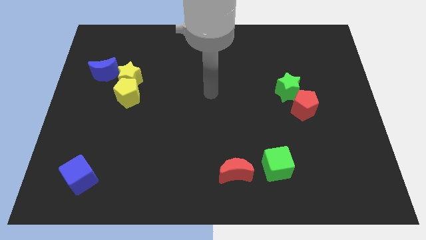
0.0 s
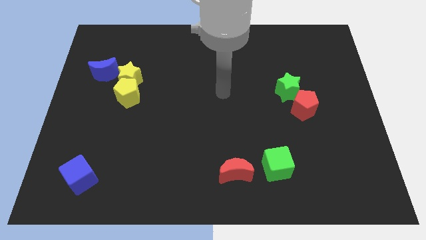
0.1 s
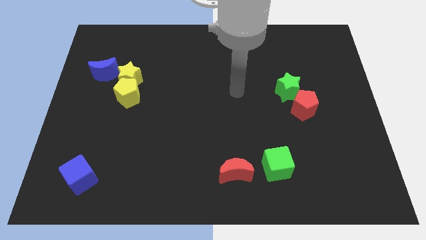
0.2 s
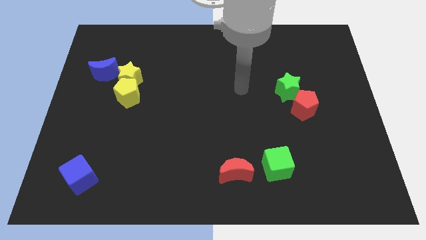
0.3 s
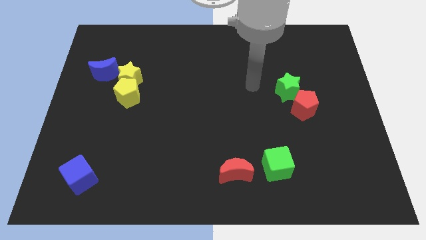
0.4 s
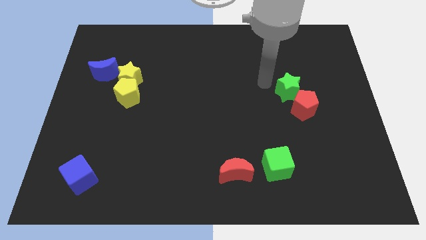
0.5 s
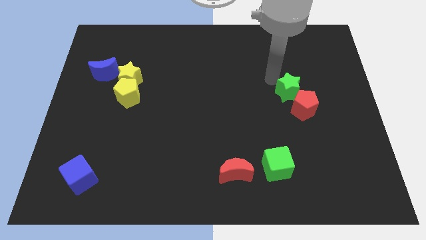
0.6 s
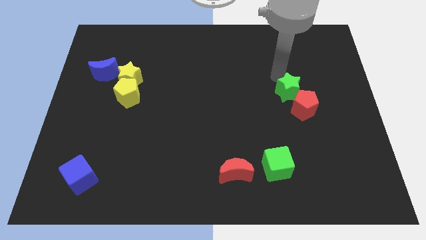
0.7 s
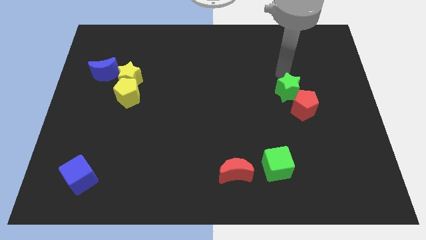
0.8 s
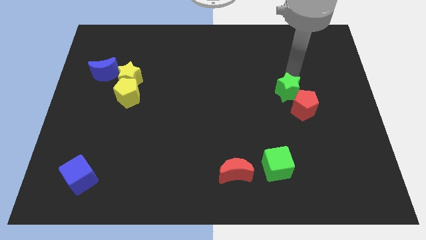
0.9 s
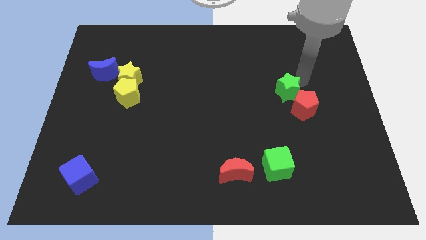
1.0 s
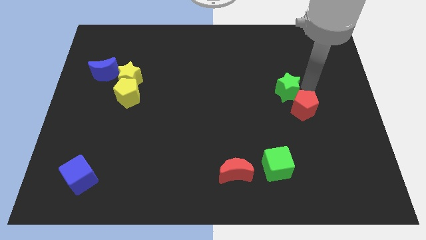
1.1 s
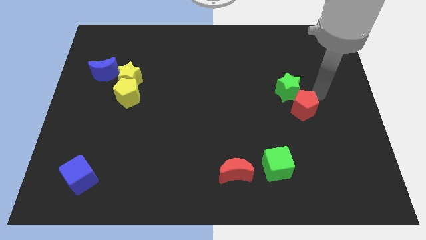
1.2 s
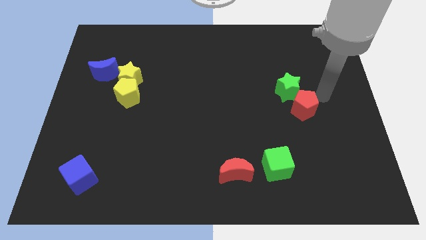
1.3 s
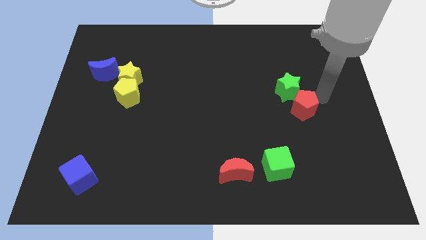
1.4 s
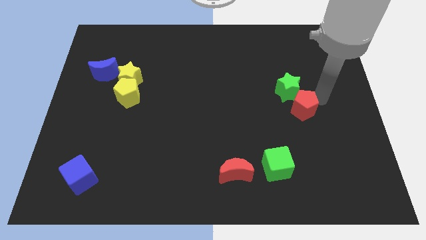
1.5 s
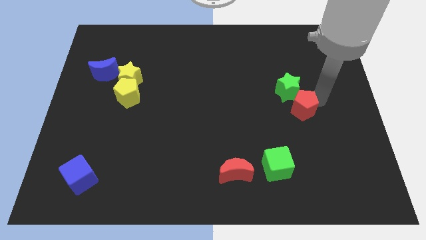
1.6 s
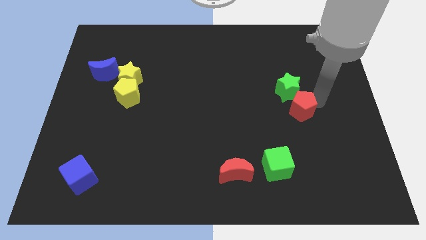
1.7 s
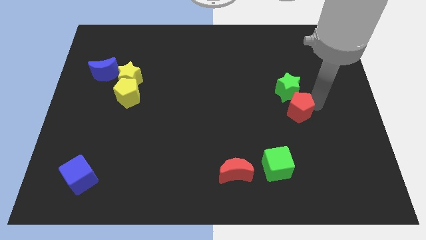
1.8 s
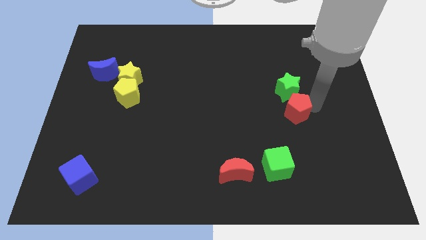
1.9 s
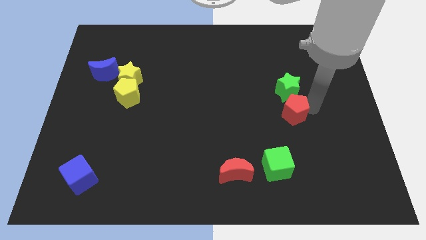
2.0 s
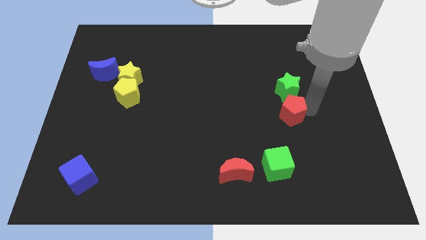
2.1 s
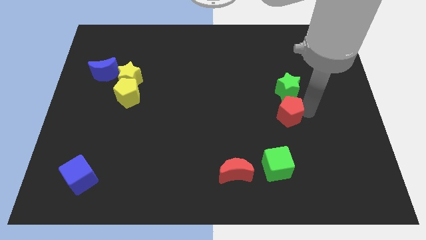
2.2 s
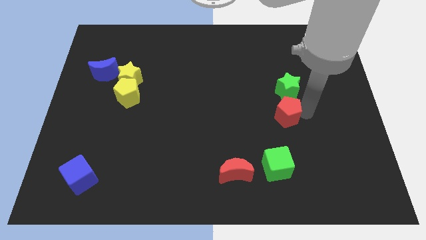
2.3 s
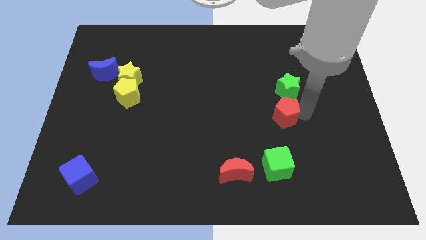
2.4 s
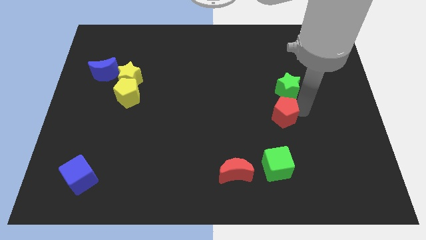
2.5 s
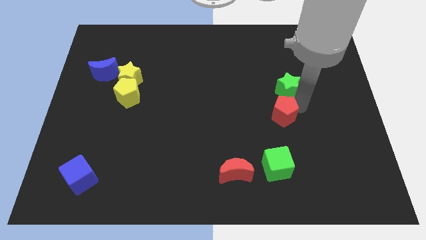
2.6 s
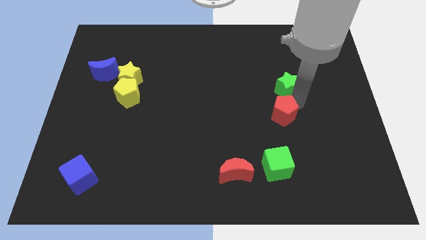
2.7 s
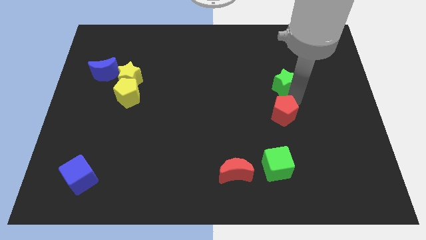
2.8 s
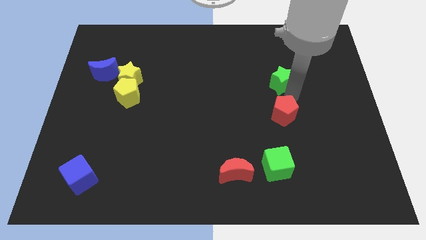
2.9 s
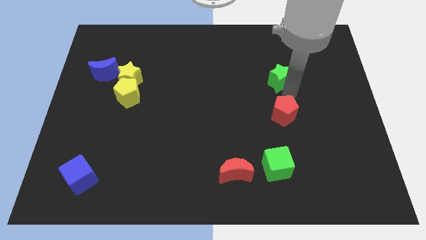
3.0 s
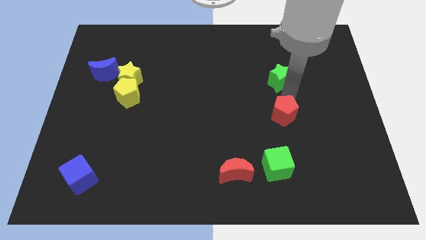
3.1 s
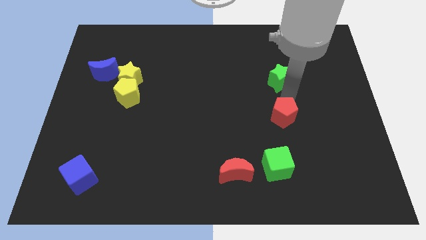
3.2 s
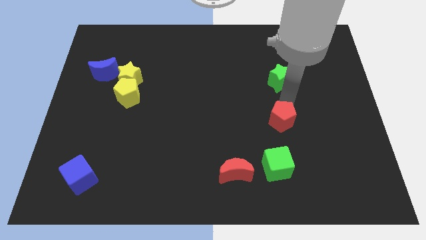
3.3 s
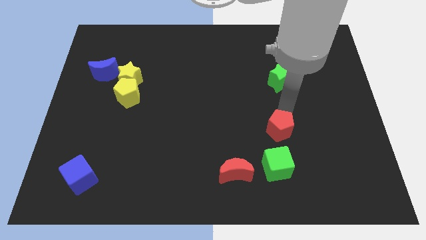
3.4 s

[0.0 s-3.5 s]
slightly push the red pentagon downwards and left

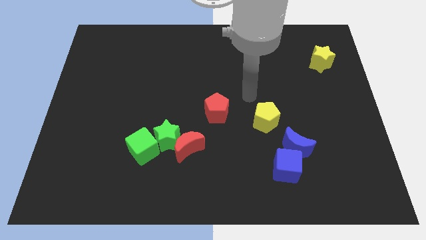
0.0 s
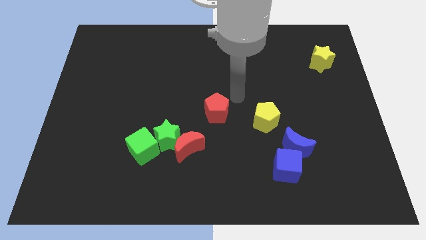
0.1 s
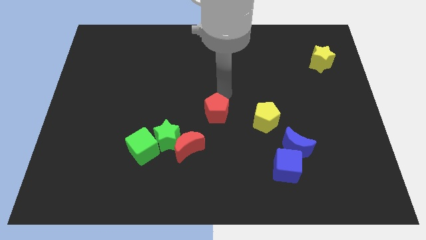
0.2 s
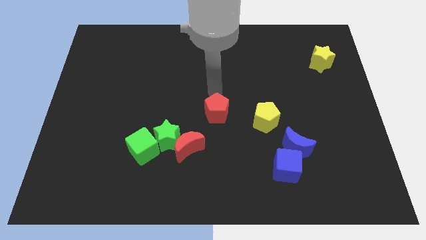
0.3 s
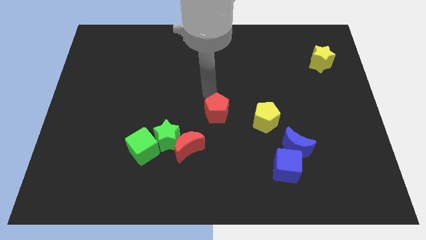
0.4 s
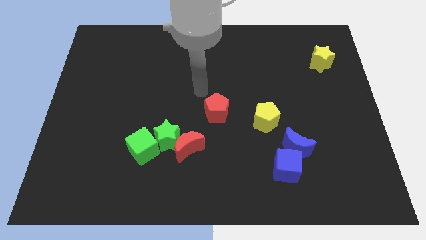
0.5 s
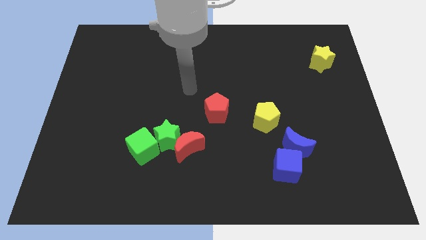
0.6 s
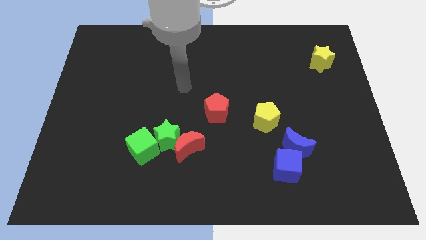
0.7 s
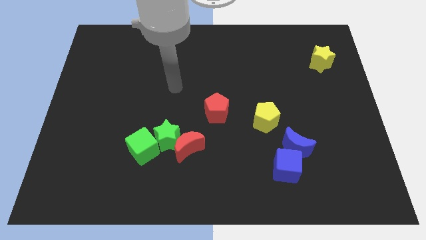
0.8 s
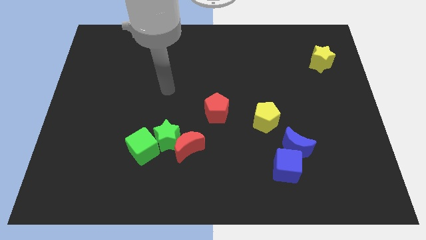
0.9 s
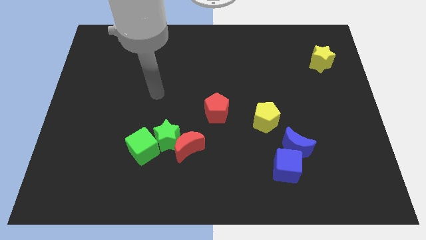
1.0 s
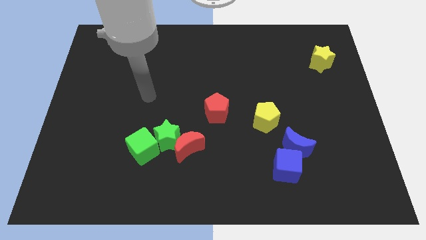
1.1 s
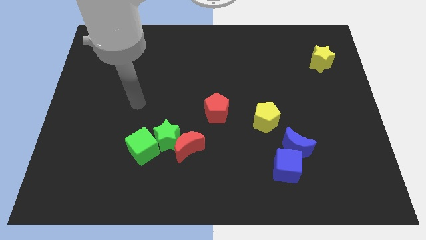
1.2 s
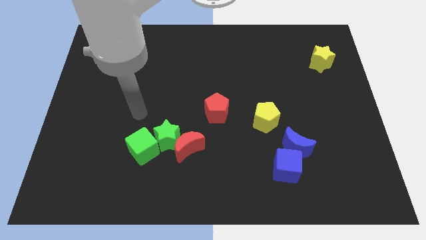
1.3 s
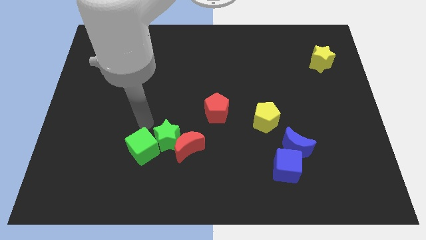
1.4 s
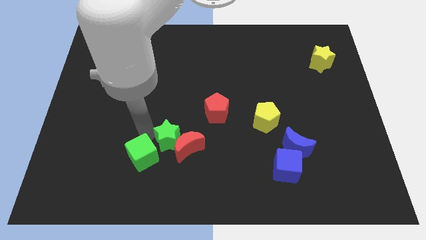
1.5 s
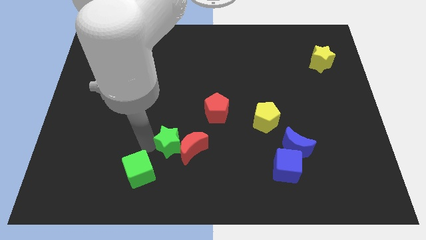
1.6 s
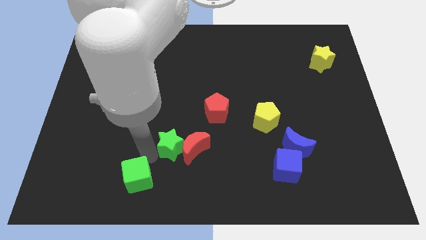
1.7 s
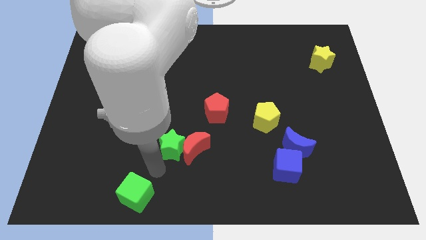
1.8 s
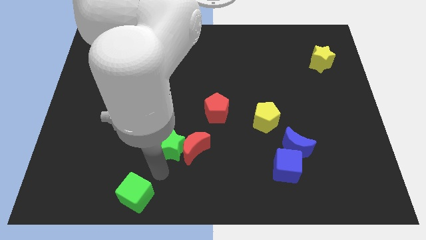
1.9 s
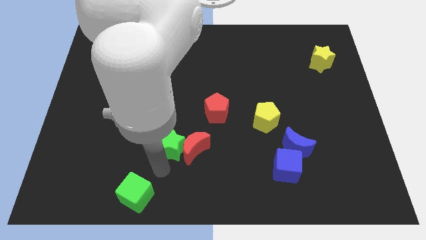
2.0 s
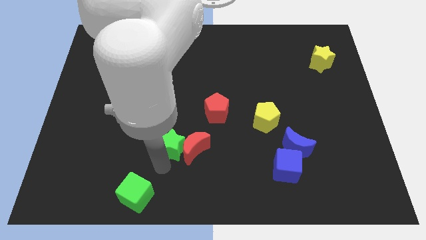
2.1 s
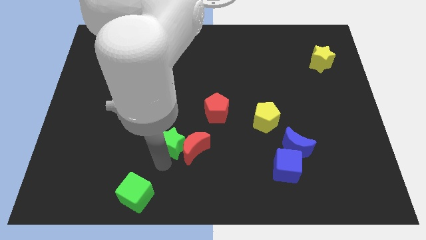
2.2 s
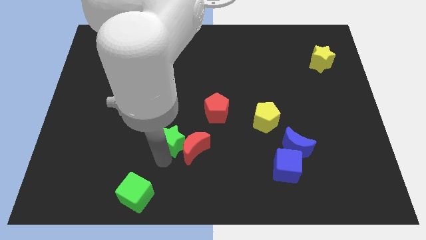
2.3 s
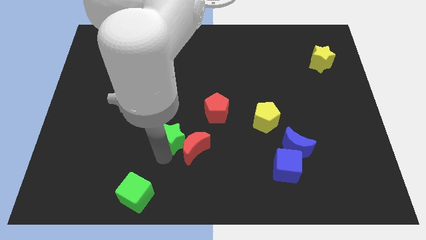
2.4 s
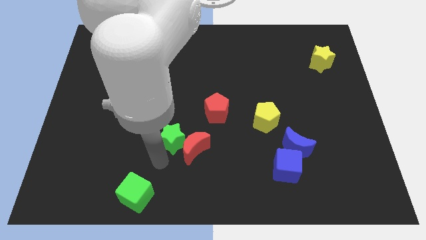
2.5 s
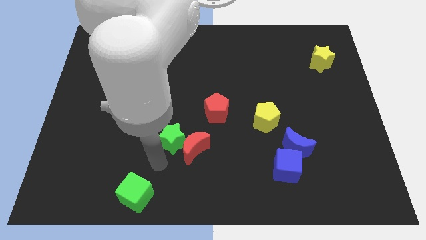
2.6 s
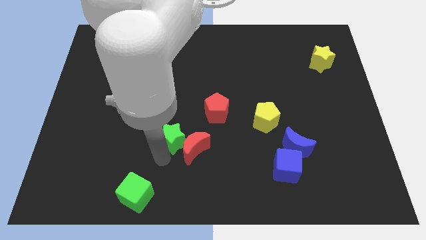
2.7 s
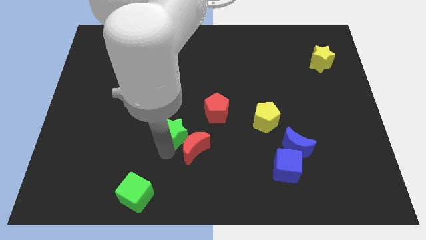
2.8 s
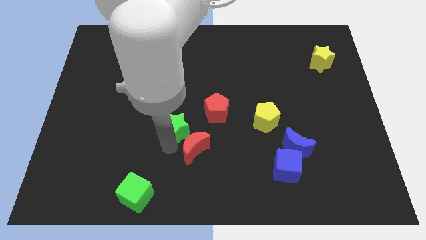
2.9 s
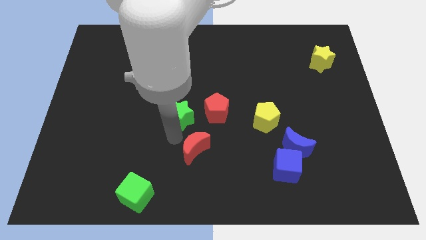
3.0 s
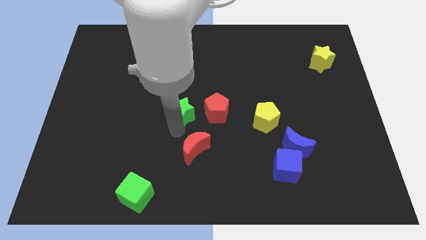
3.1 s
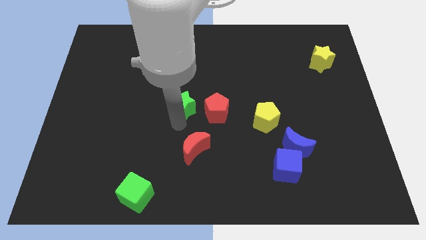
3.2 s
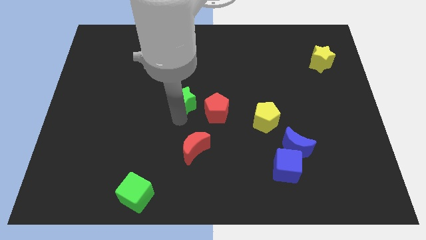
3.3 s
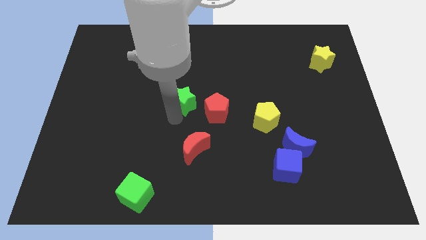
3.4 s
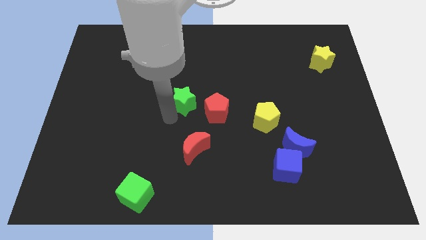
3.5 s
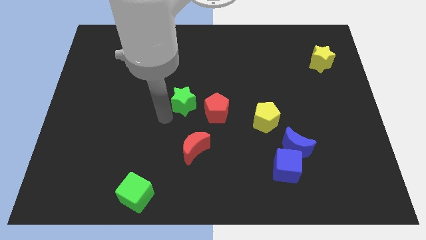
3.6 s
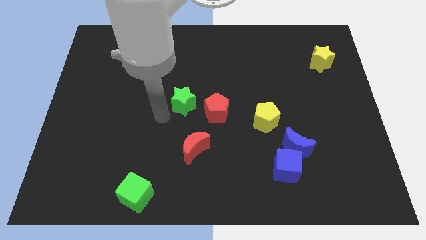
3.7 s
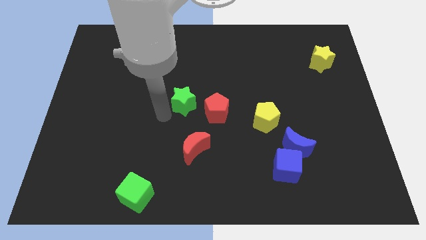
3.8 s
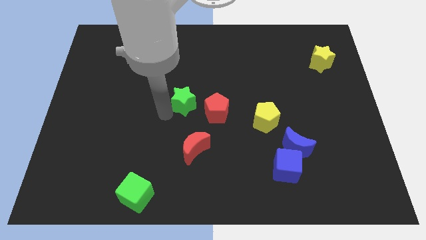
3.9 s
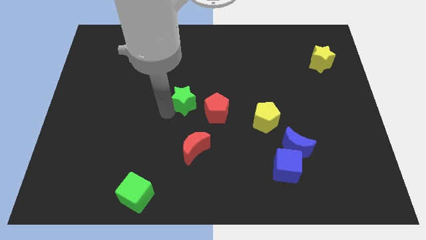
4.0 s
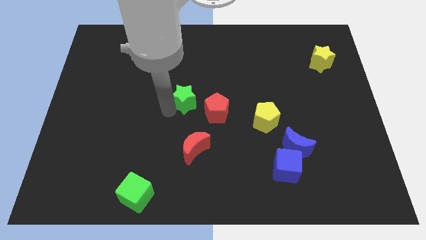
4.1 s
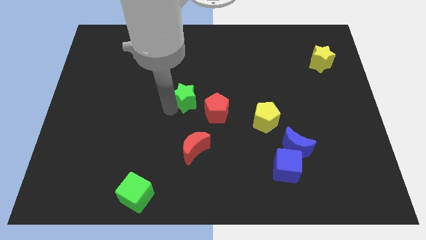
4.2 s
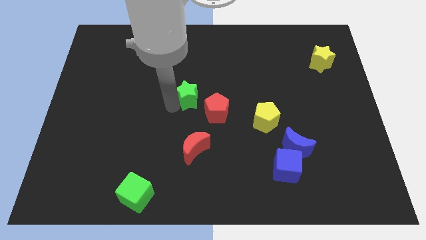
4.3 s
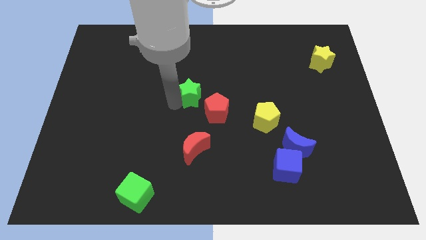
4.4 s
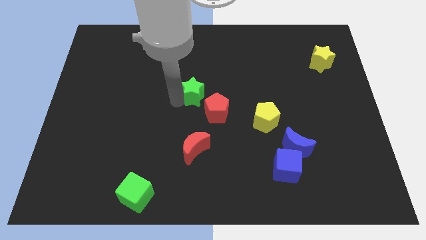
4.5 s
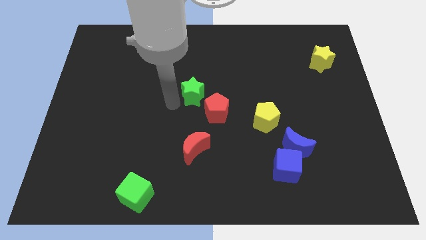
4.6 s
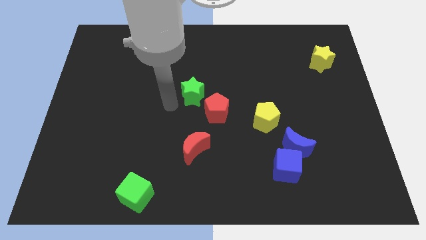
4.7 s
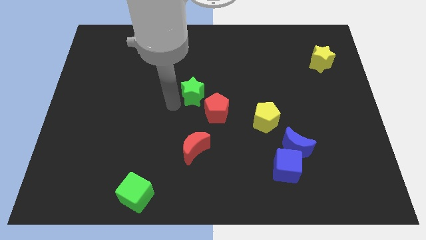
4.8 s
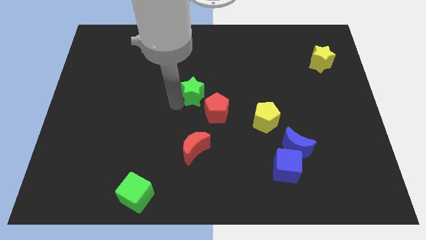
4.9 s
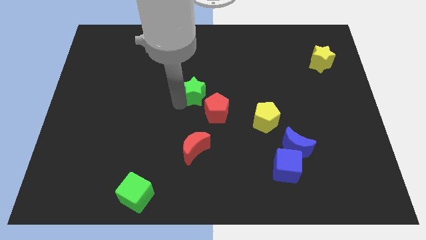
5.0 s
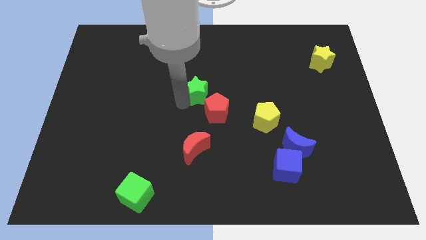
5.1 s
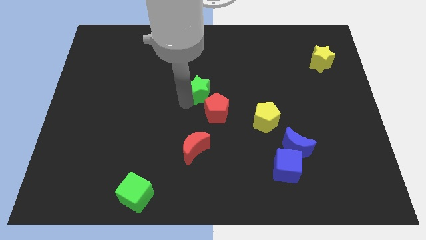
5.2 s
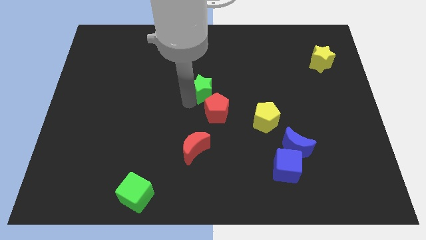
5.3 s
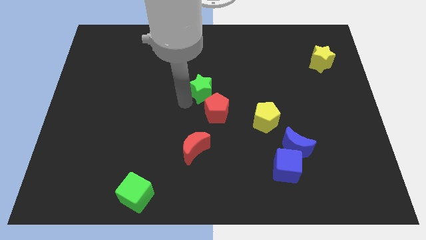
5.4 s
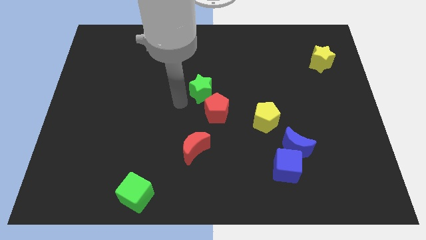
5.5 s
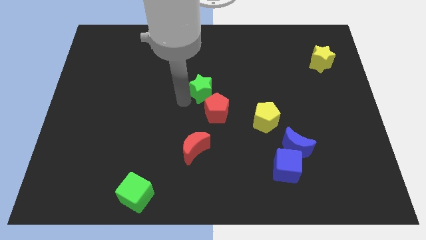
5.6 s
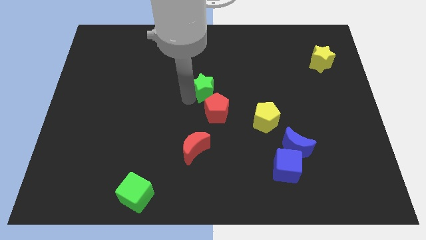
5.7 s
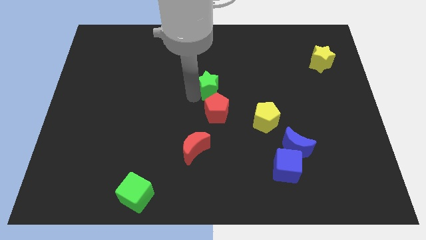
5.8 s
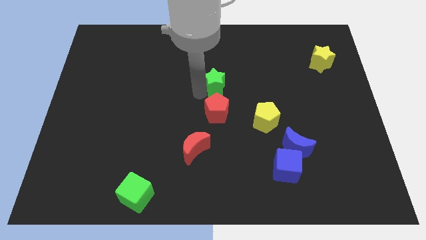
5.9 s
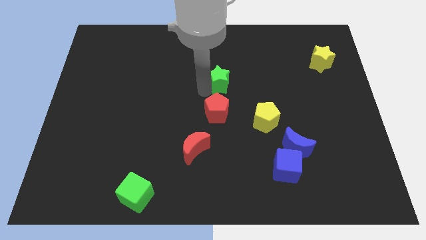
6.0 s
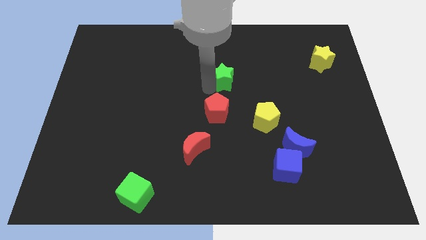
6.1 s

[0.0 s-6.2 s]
slide the green star upwards and to the right diagonally
